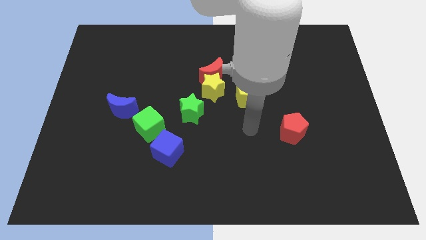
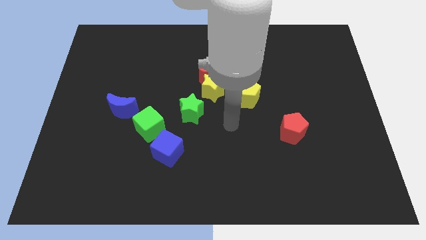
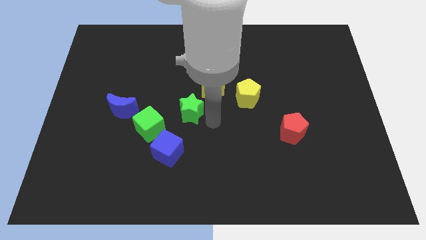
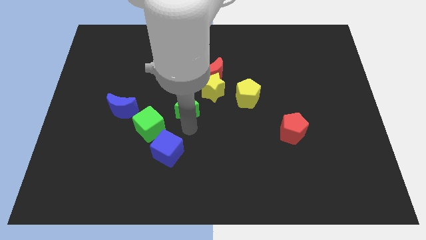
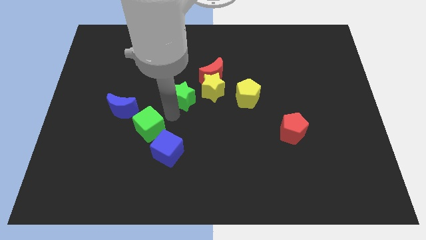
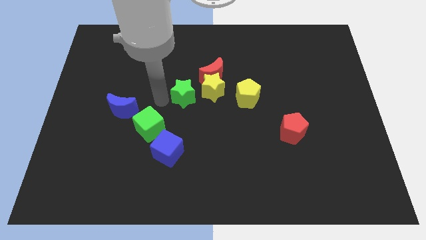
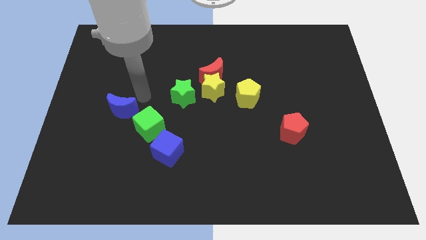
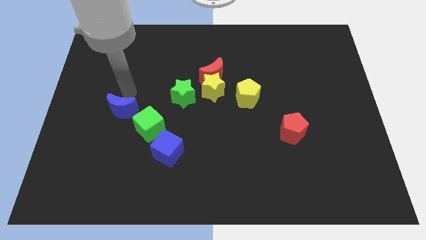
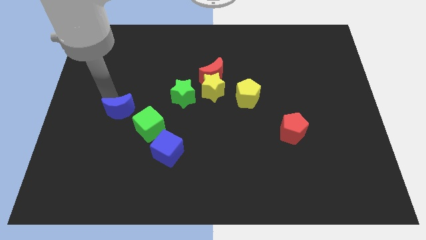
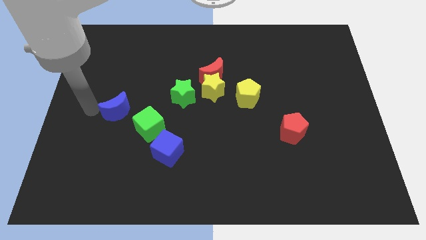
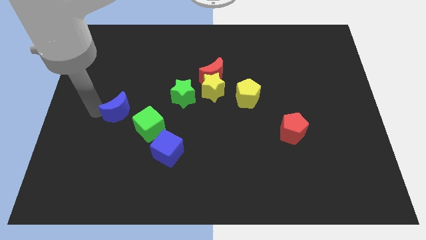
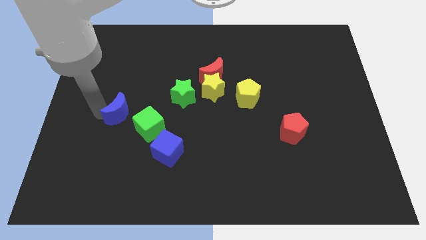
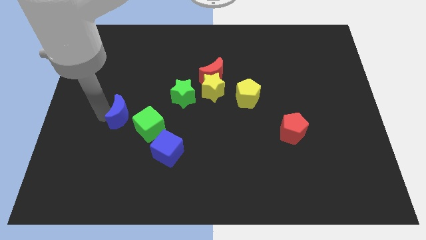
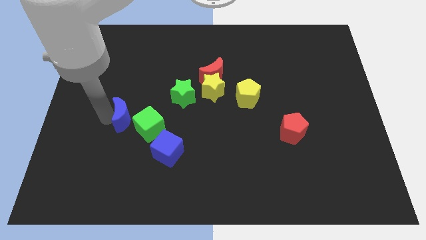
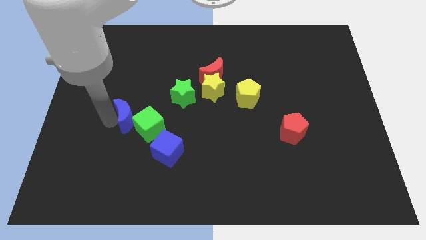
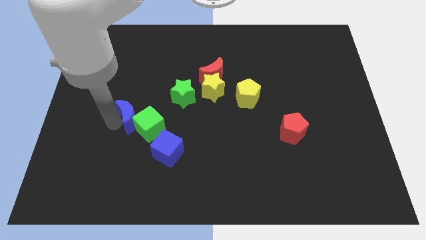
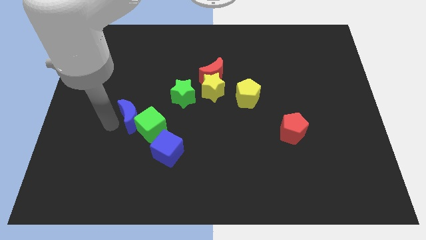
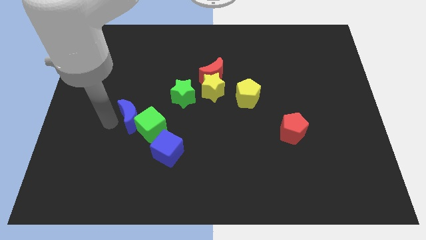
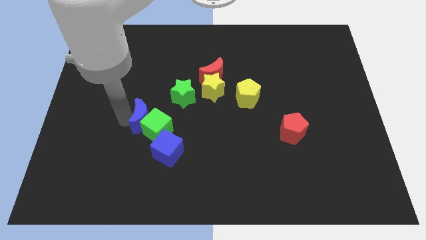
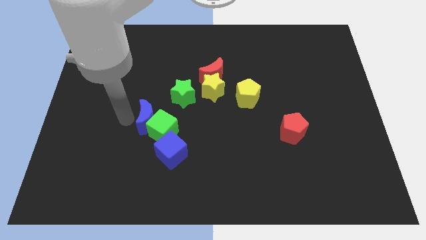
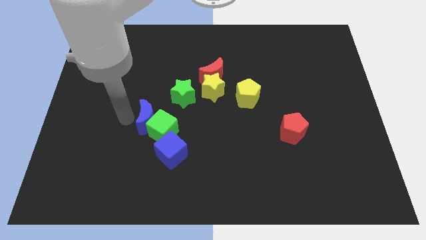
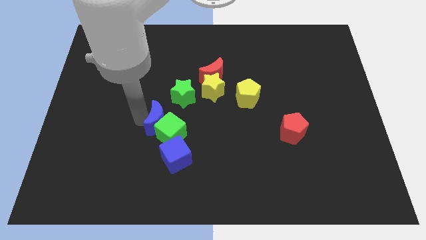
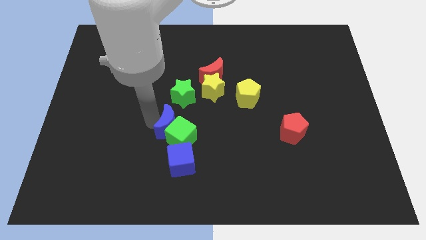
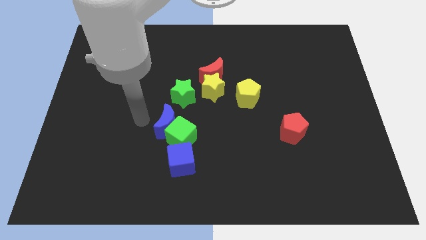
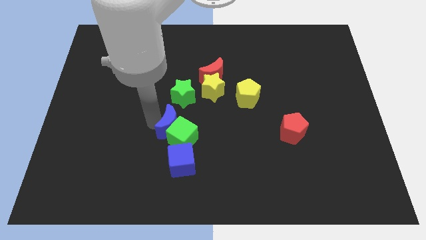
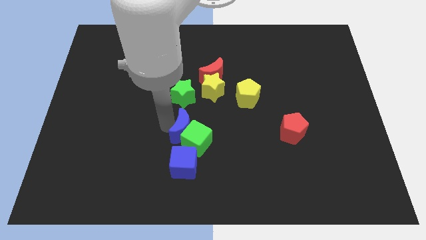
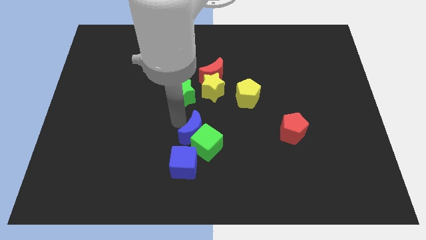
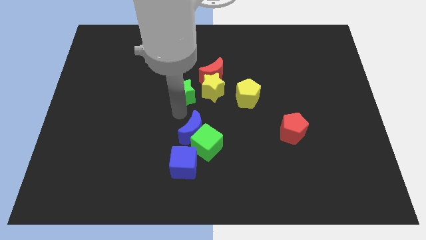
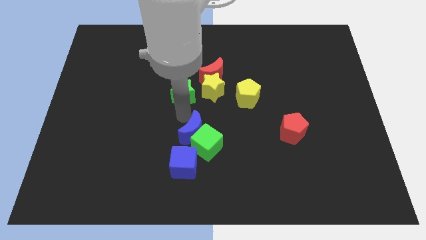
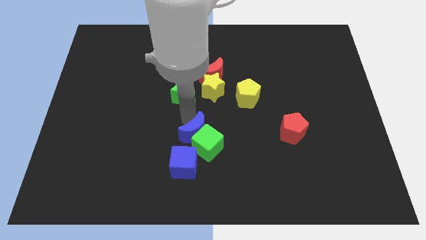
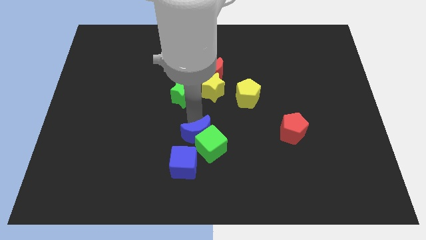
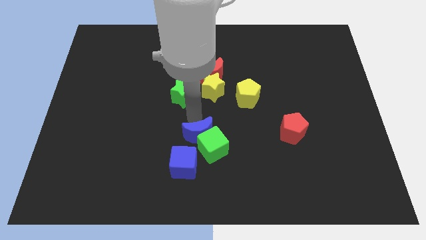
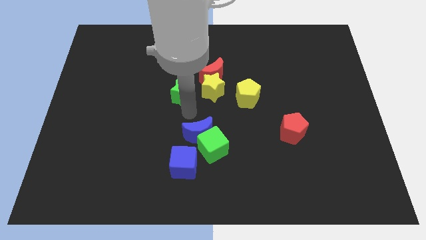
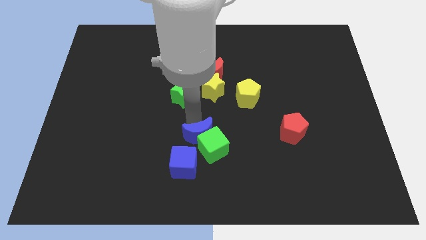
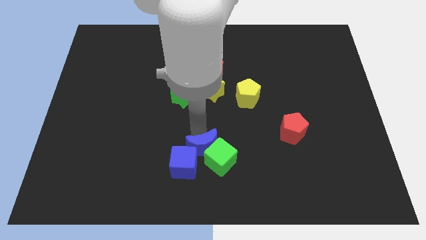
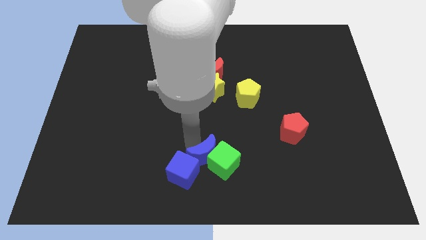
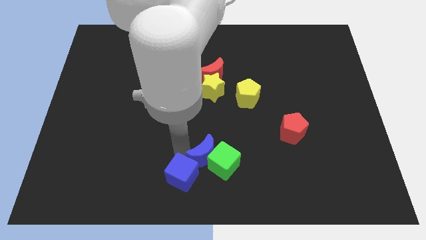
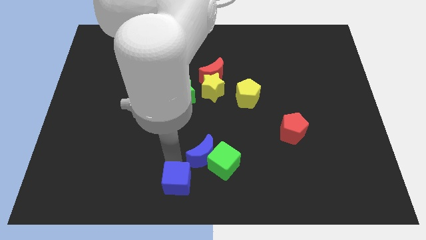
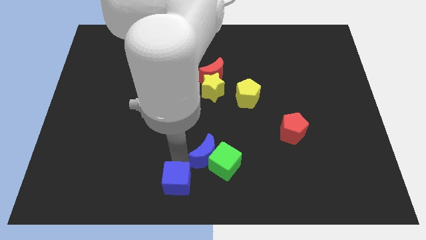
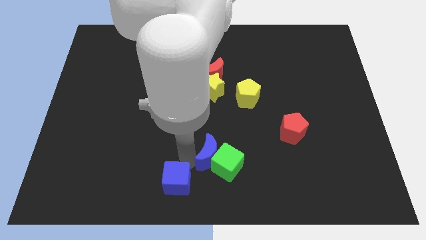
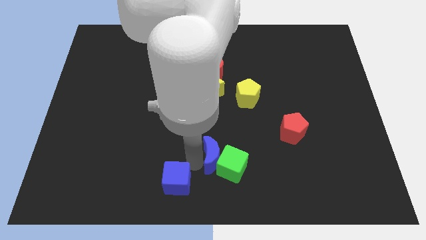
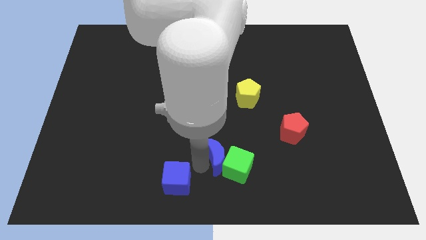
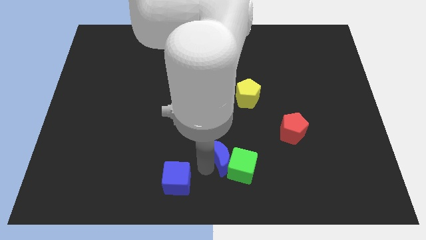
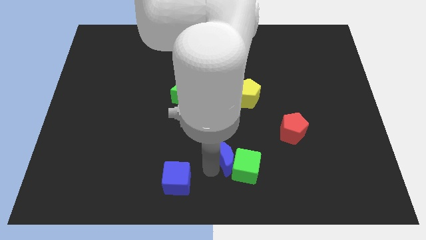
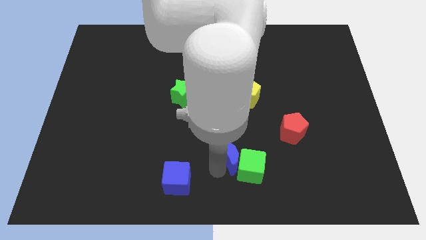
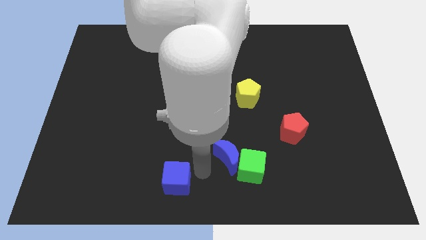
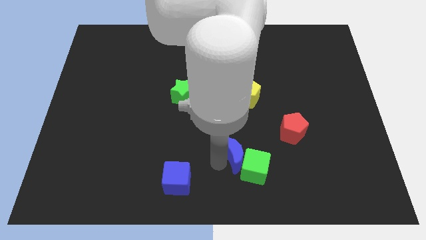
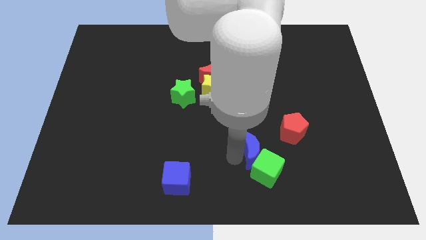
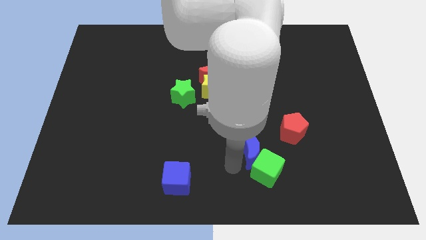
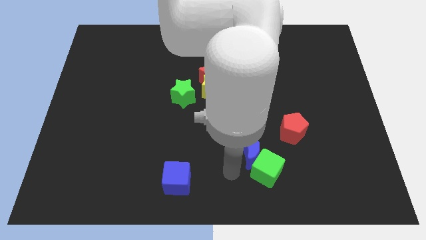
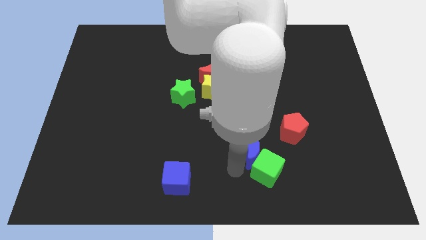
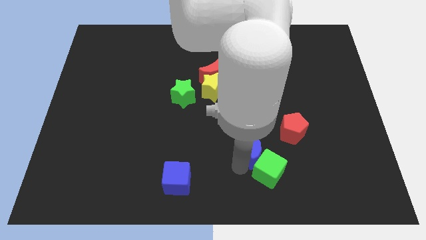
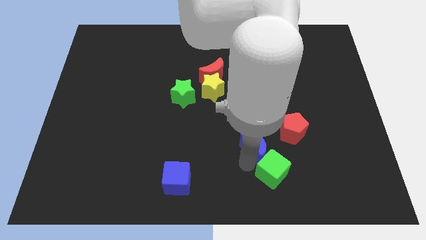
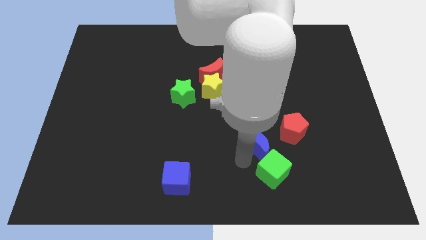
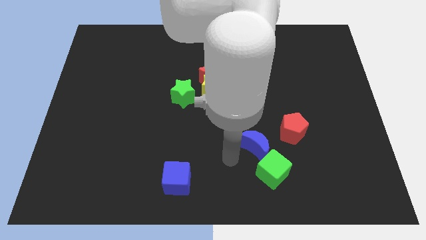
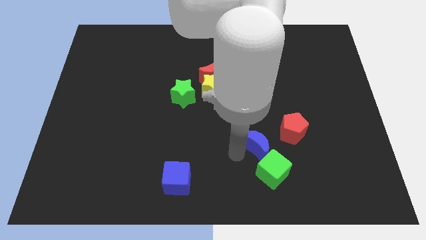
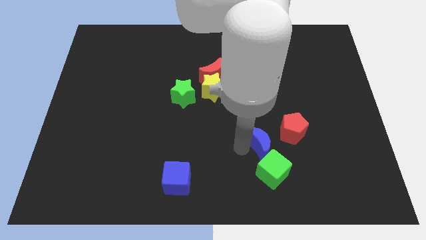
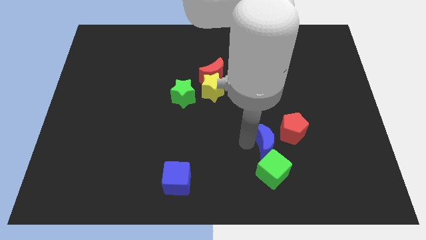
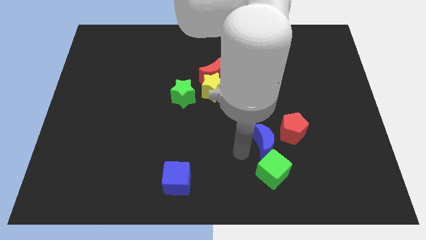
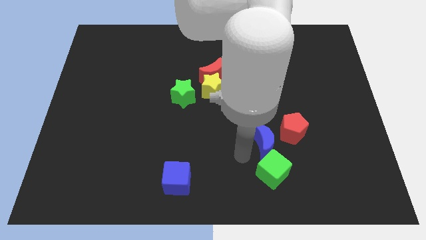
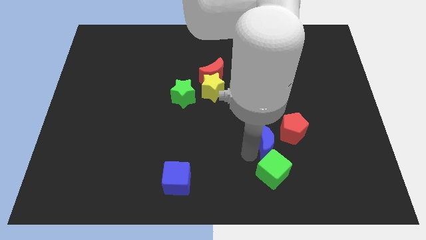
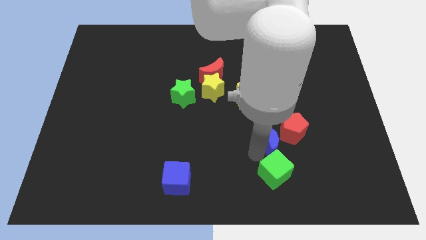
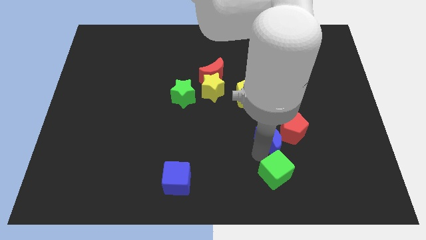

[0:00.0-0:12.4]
move the blue moon to the red pentagon
